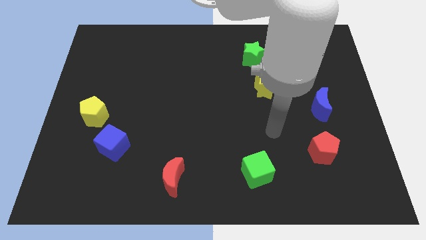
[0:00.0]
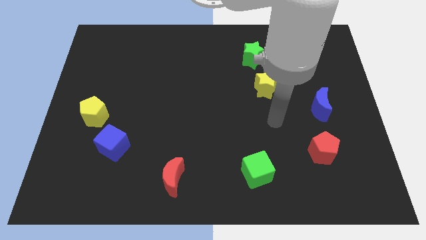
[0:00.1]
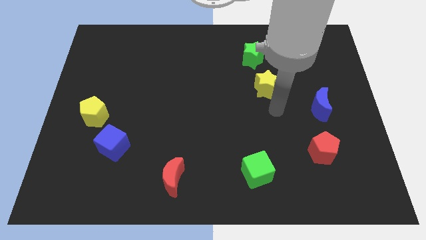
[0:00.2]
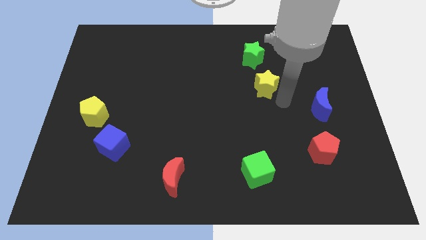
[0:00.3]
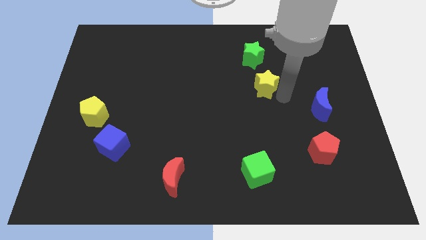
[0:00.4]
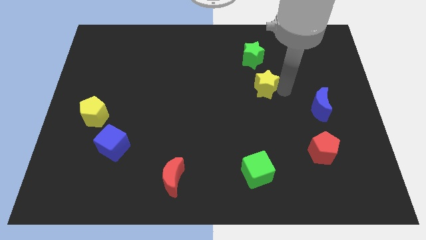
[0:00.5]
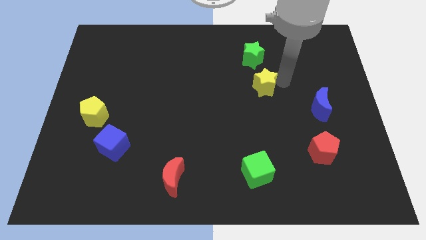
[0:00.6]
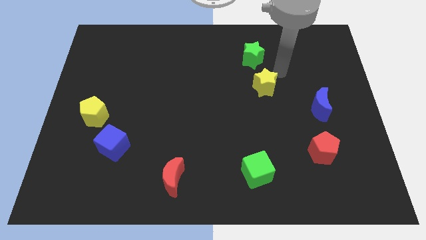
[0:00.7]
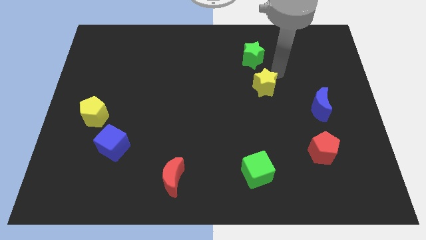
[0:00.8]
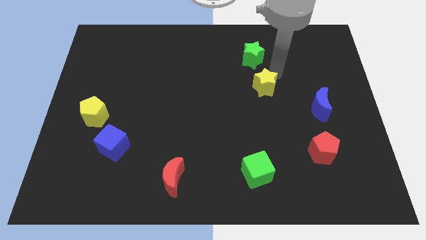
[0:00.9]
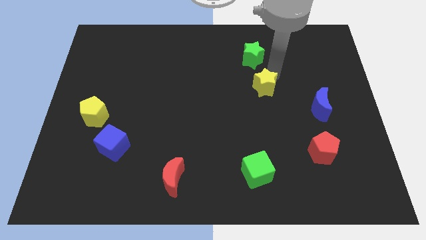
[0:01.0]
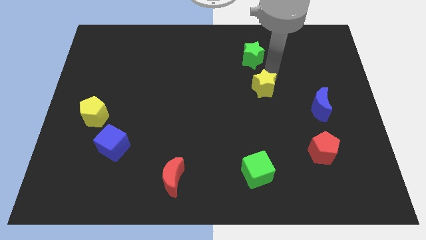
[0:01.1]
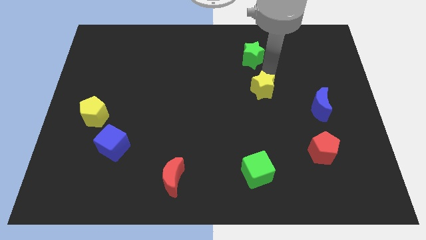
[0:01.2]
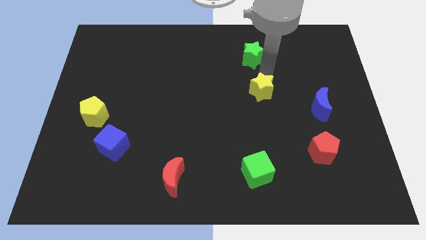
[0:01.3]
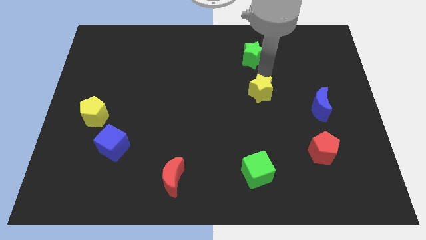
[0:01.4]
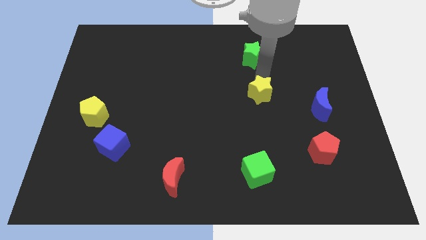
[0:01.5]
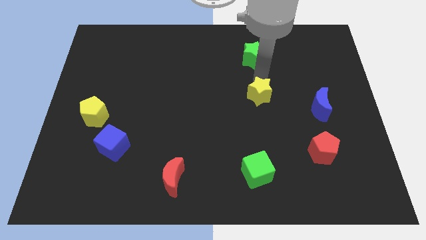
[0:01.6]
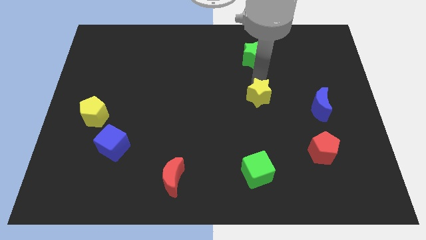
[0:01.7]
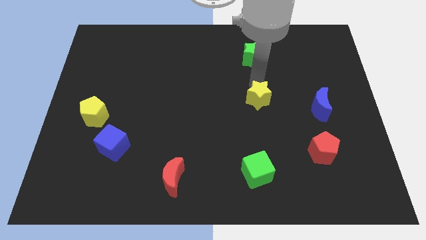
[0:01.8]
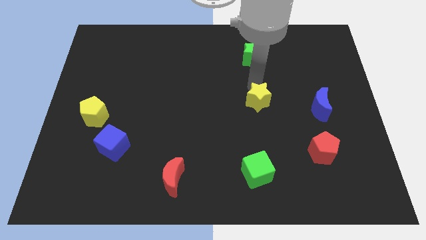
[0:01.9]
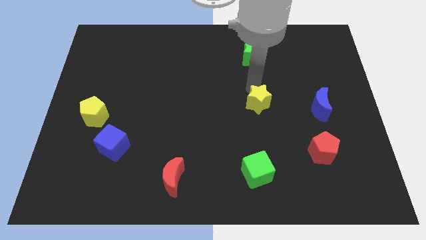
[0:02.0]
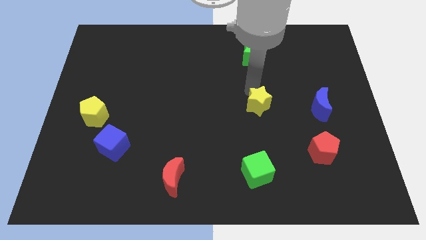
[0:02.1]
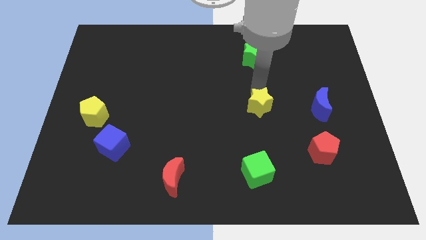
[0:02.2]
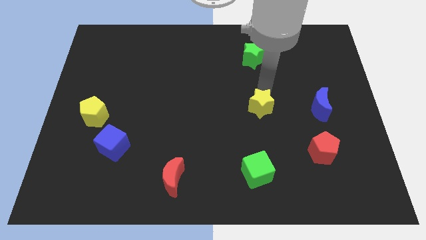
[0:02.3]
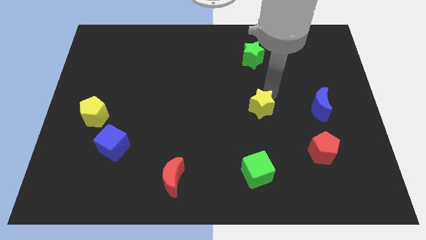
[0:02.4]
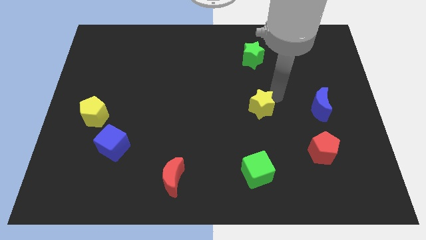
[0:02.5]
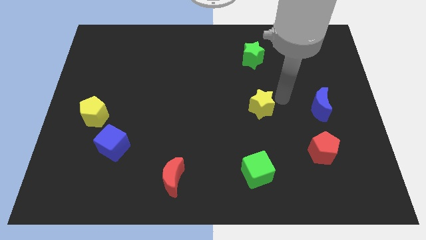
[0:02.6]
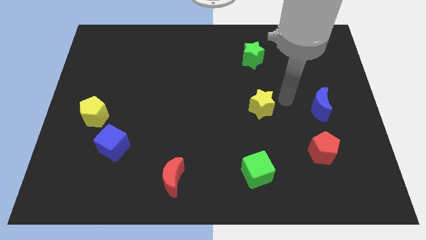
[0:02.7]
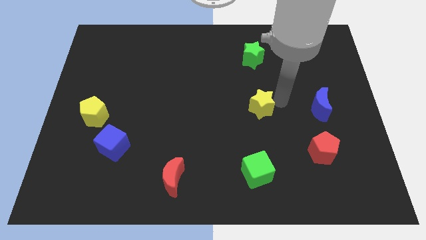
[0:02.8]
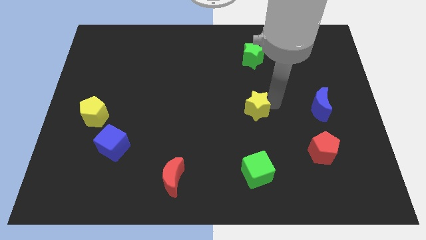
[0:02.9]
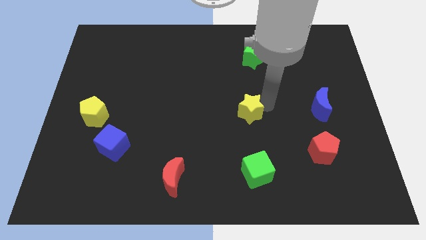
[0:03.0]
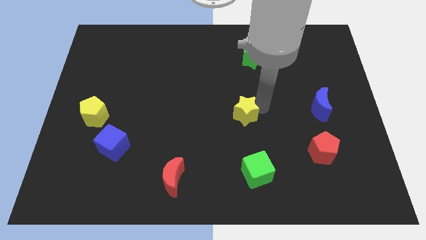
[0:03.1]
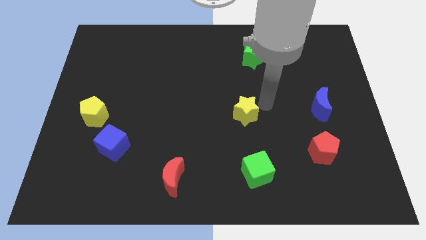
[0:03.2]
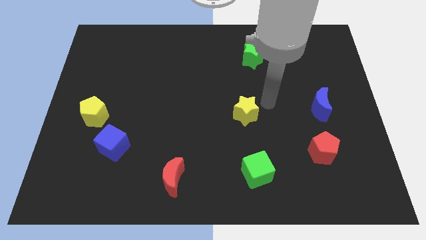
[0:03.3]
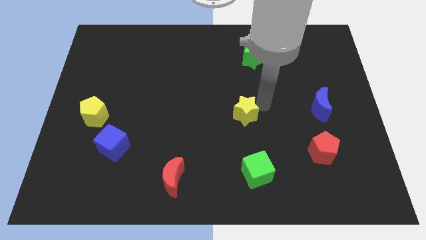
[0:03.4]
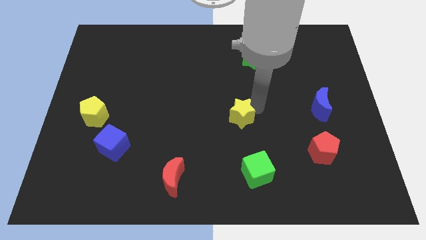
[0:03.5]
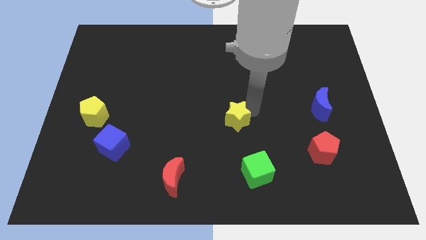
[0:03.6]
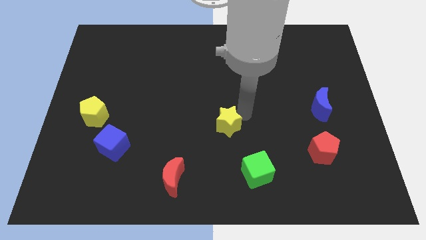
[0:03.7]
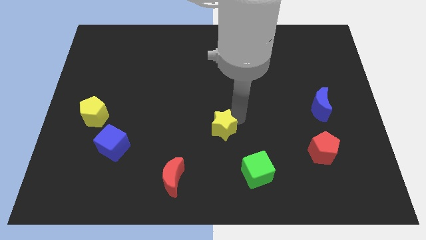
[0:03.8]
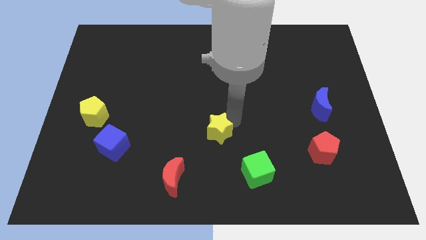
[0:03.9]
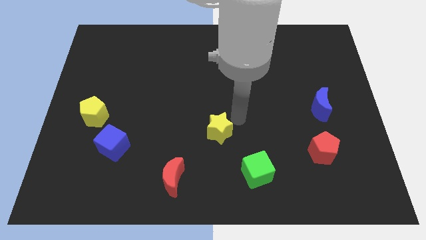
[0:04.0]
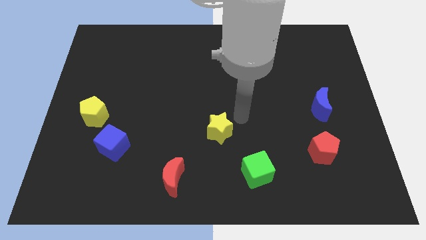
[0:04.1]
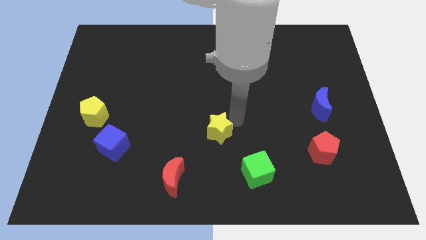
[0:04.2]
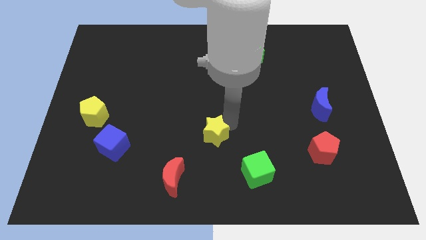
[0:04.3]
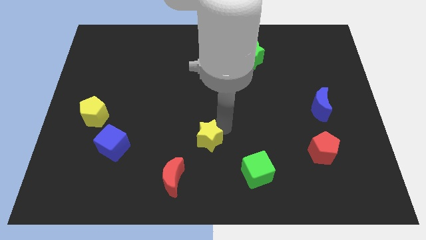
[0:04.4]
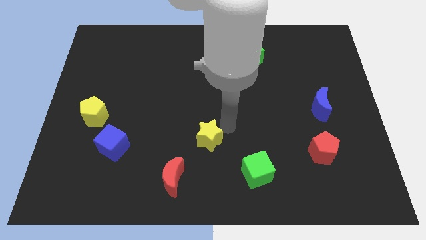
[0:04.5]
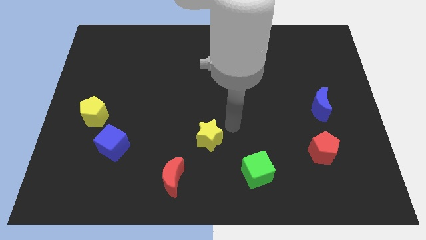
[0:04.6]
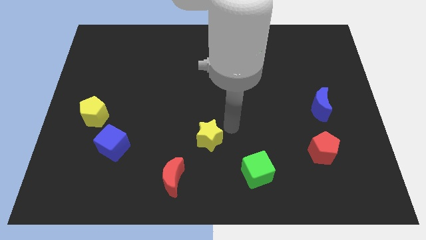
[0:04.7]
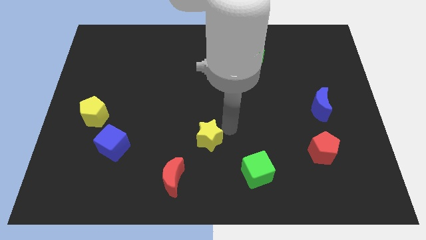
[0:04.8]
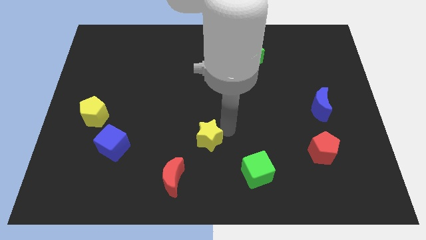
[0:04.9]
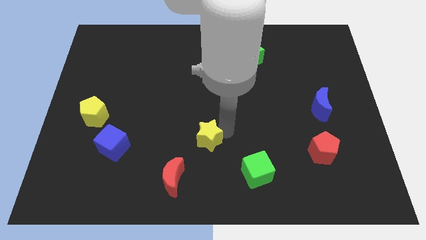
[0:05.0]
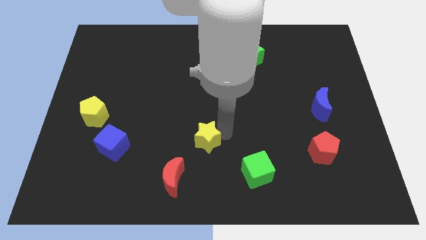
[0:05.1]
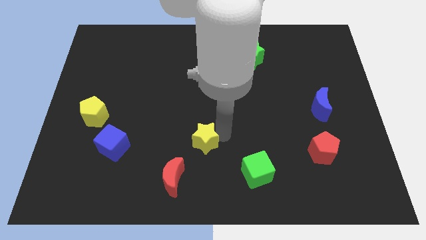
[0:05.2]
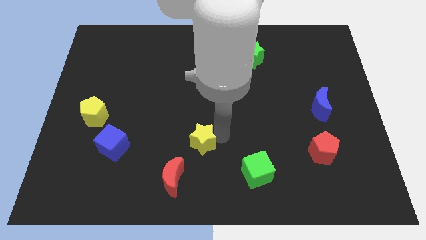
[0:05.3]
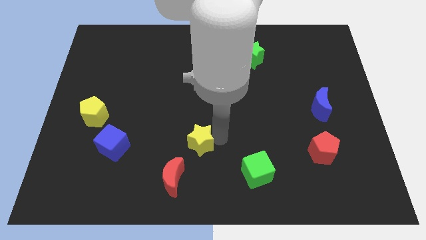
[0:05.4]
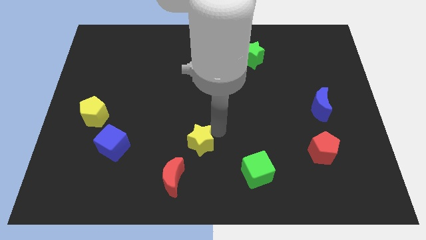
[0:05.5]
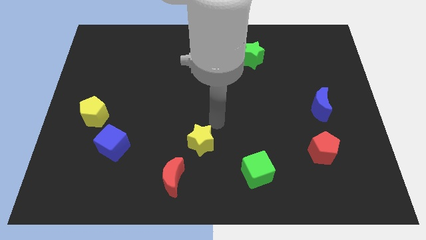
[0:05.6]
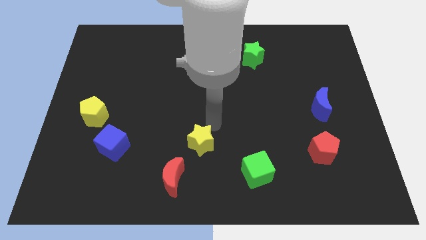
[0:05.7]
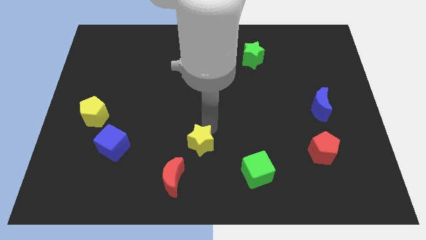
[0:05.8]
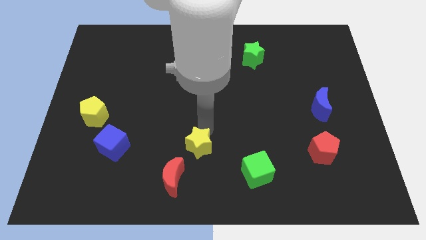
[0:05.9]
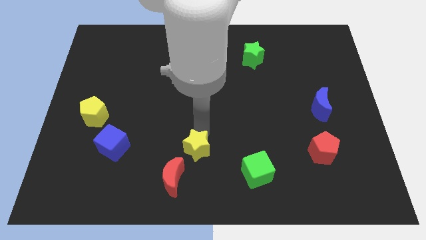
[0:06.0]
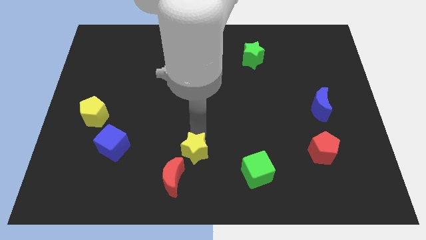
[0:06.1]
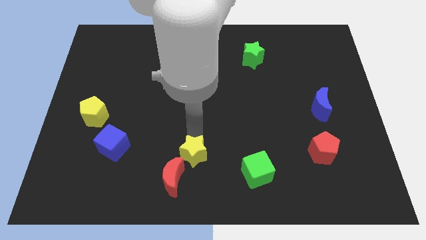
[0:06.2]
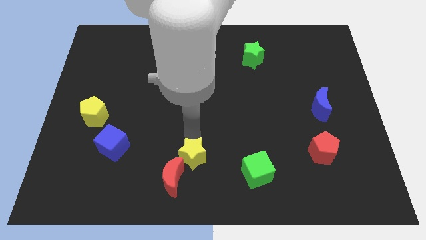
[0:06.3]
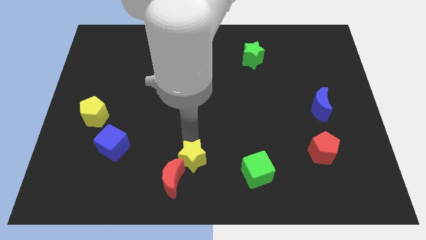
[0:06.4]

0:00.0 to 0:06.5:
slide the yellow star close to the red moon
